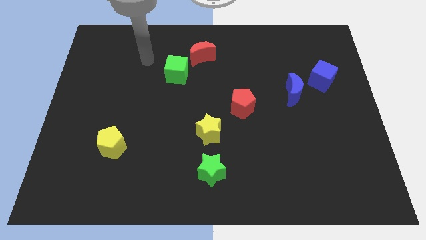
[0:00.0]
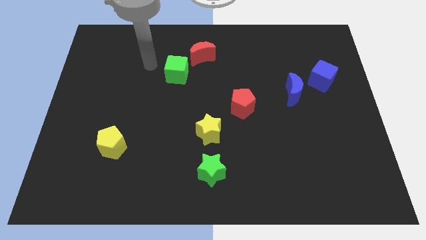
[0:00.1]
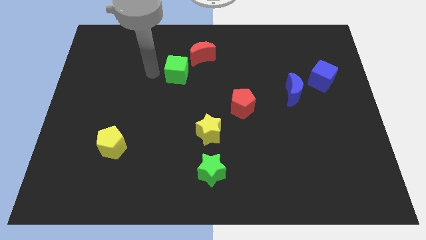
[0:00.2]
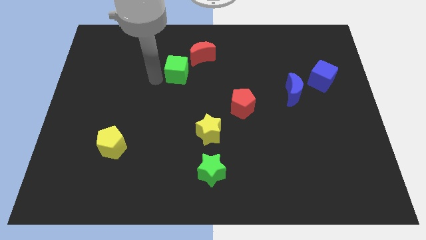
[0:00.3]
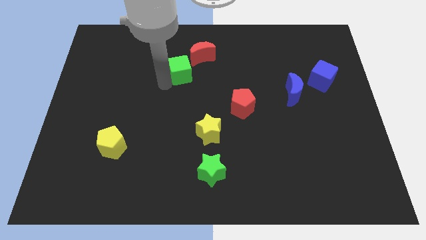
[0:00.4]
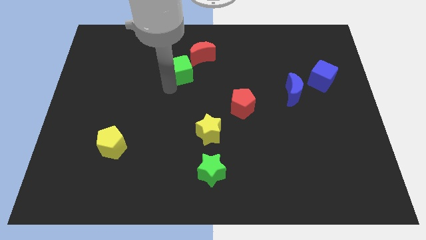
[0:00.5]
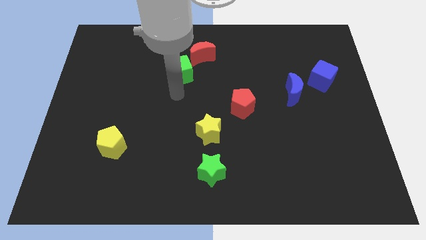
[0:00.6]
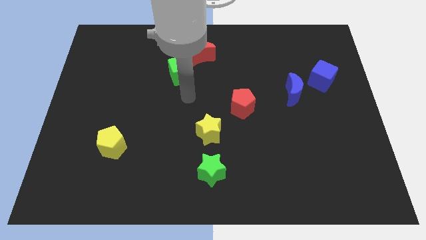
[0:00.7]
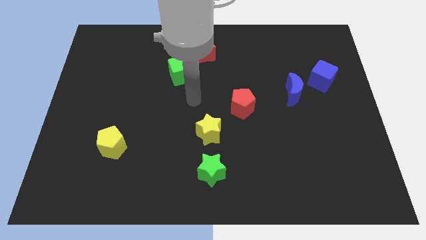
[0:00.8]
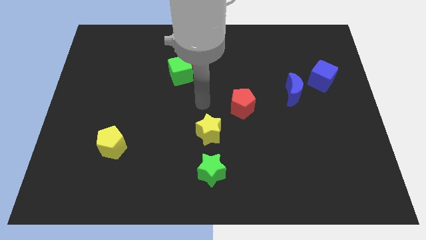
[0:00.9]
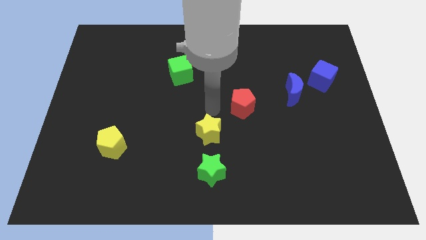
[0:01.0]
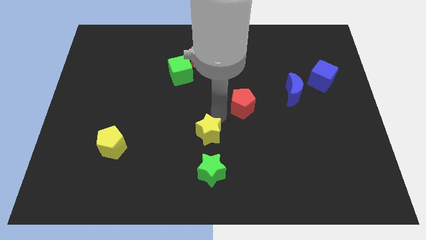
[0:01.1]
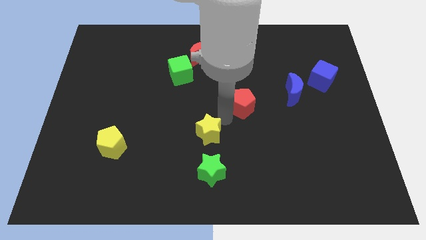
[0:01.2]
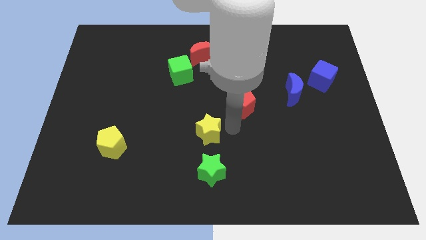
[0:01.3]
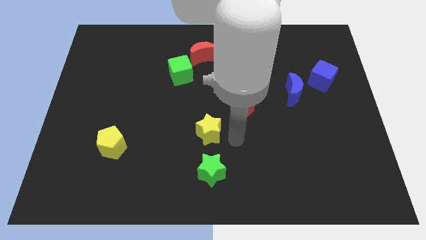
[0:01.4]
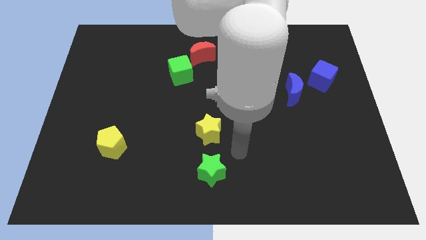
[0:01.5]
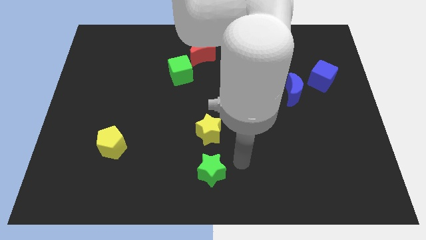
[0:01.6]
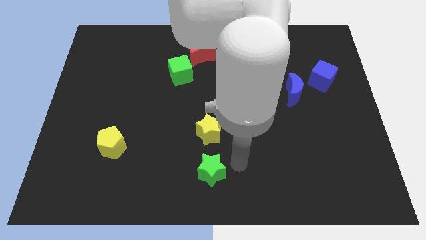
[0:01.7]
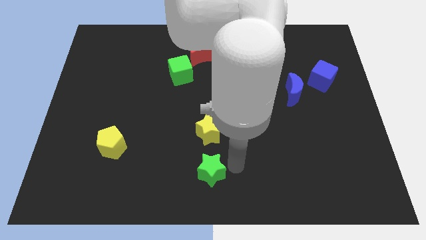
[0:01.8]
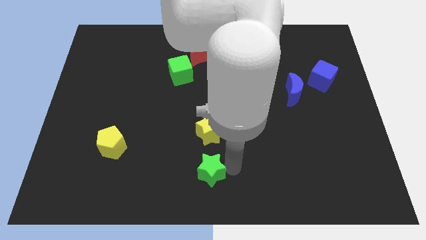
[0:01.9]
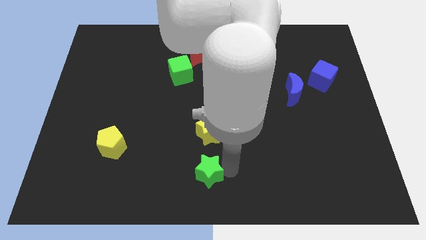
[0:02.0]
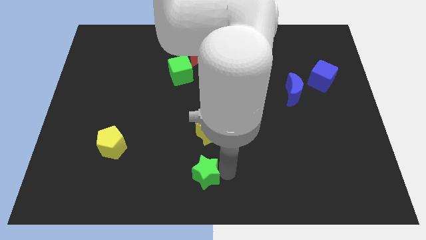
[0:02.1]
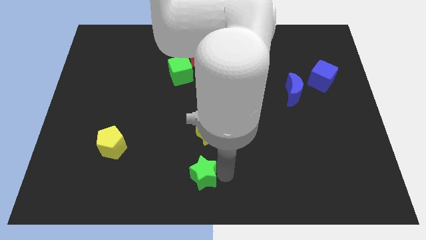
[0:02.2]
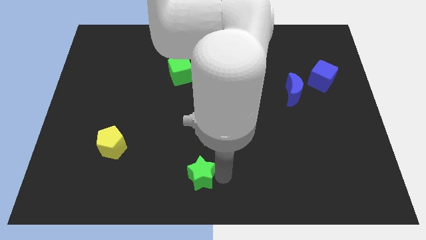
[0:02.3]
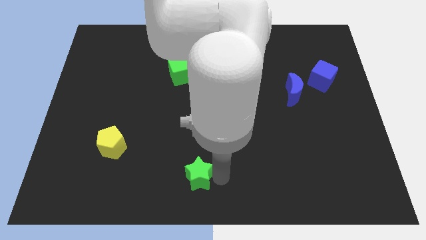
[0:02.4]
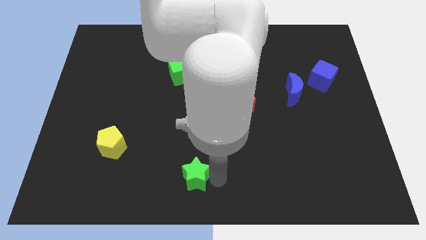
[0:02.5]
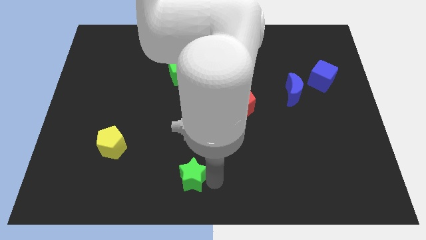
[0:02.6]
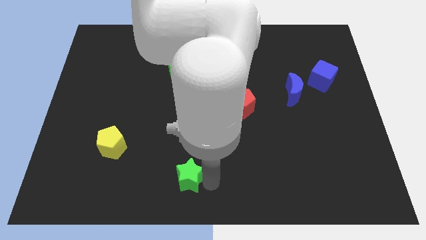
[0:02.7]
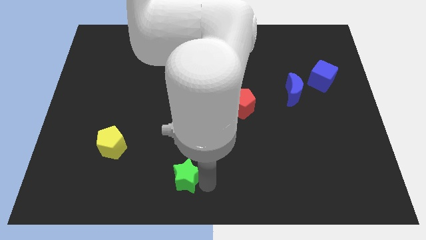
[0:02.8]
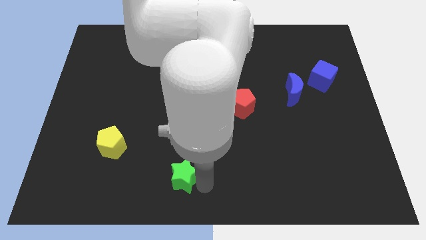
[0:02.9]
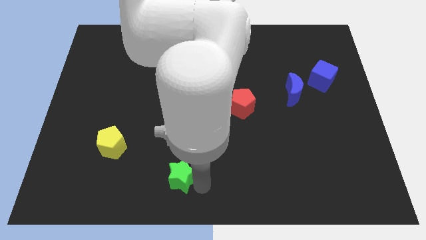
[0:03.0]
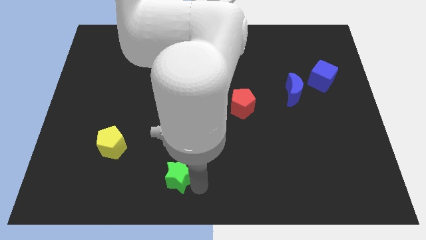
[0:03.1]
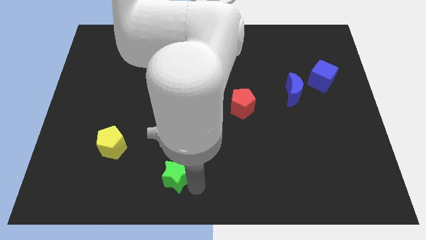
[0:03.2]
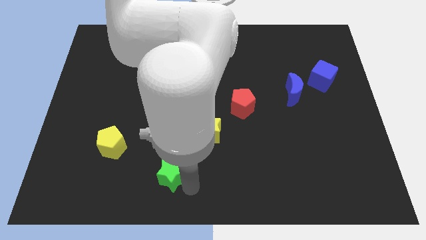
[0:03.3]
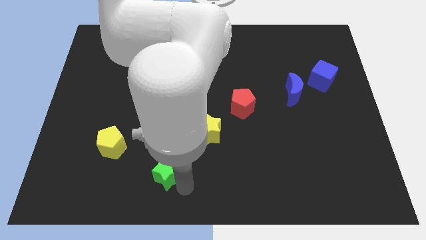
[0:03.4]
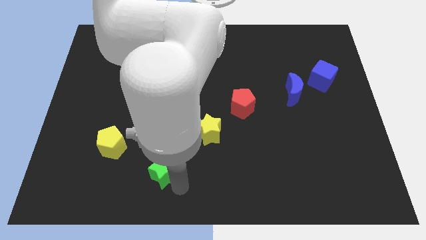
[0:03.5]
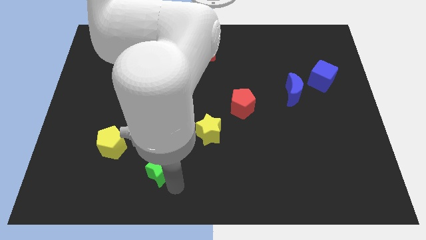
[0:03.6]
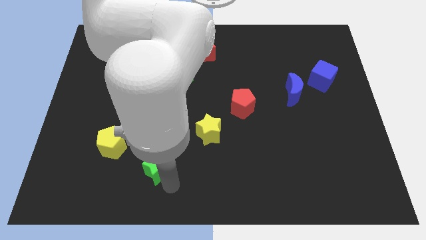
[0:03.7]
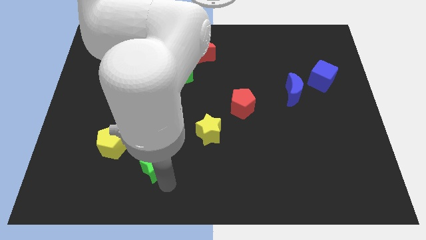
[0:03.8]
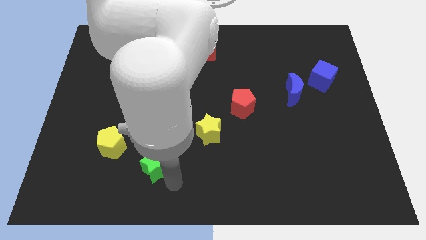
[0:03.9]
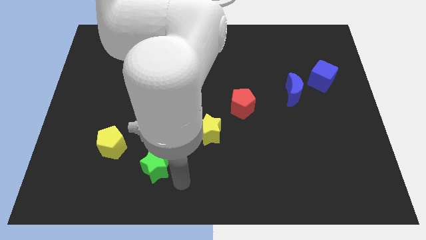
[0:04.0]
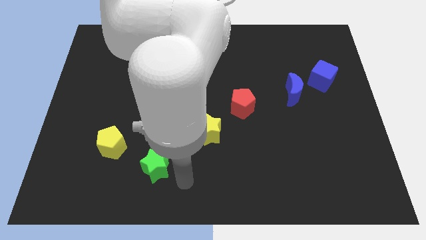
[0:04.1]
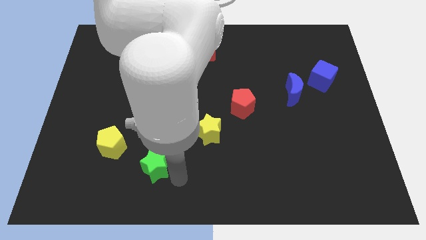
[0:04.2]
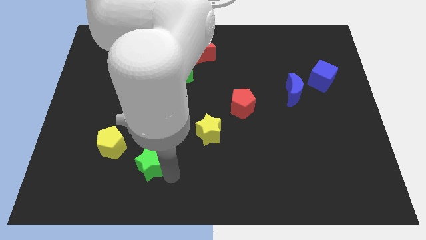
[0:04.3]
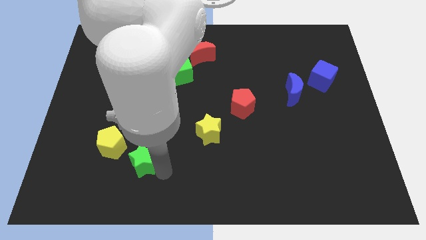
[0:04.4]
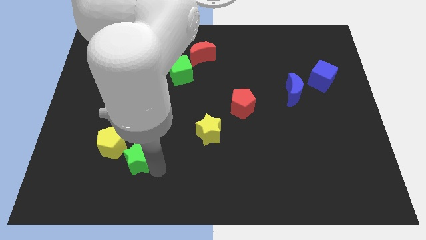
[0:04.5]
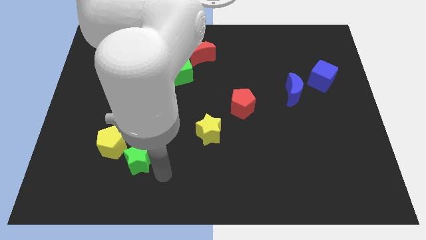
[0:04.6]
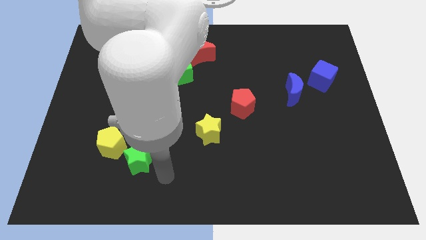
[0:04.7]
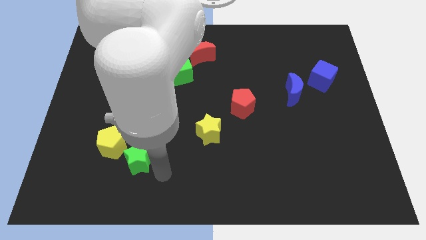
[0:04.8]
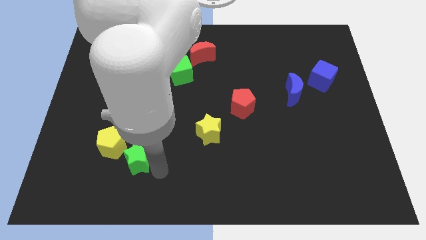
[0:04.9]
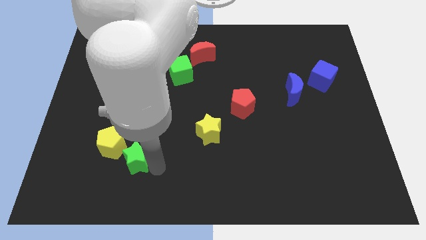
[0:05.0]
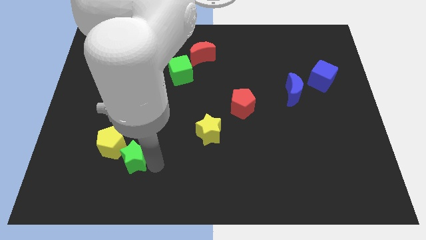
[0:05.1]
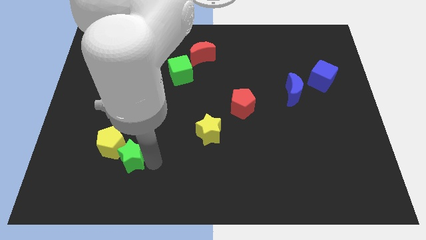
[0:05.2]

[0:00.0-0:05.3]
move the green star to the yellow pentagon

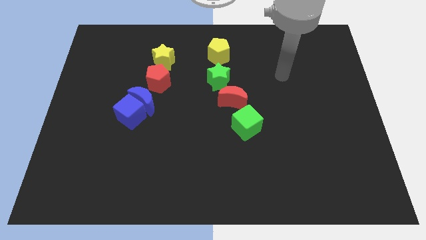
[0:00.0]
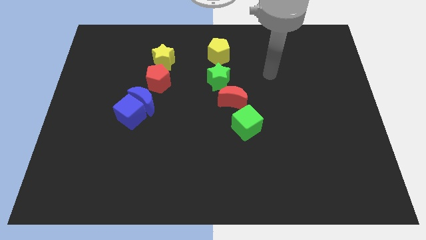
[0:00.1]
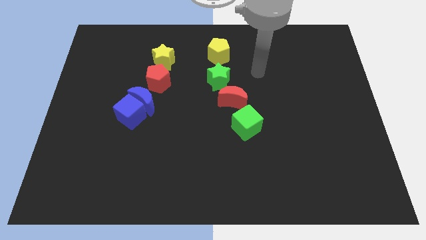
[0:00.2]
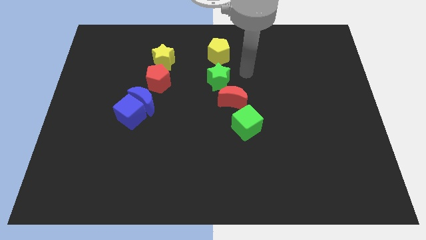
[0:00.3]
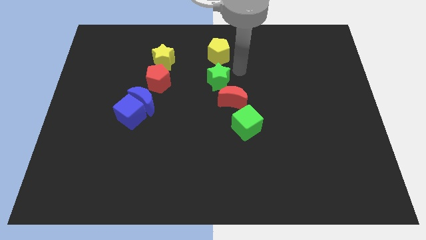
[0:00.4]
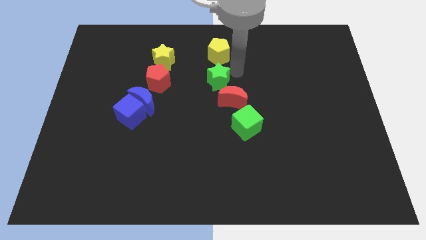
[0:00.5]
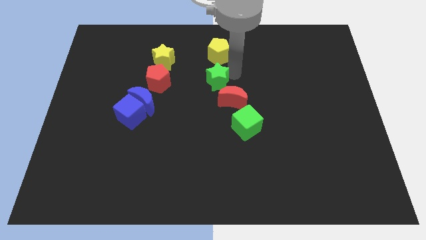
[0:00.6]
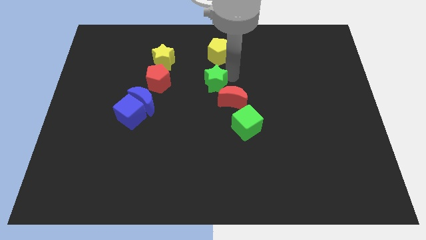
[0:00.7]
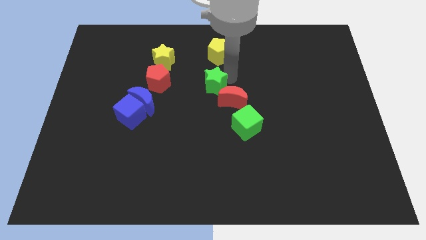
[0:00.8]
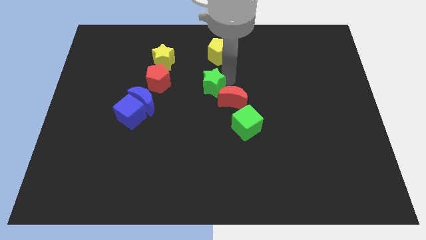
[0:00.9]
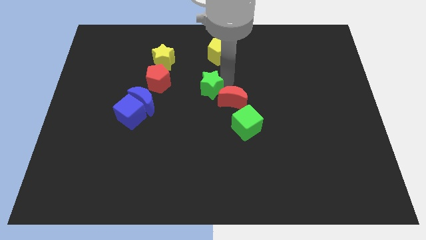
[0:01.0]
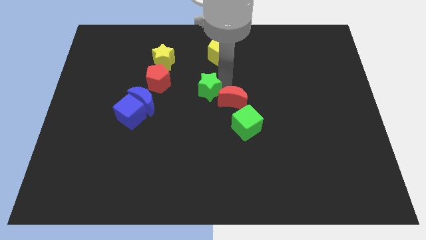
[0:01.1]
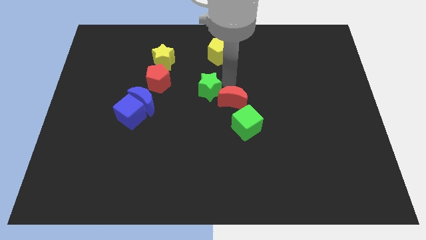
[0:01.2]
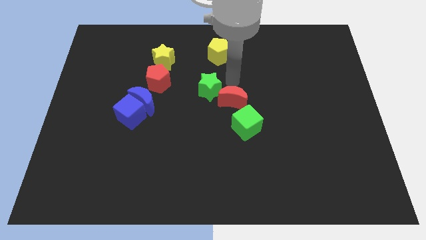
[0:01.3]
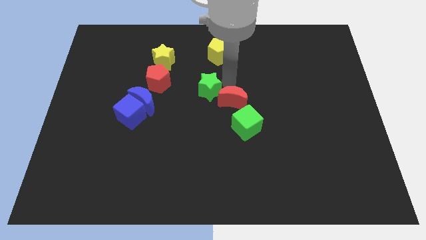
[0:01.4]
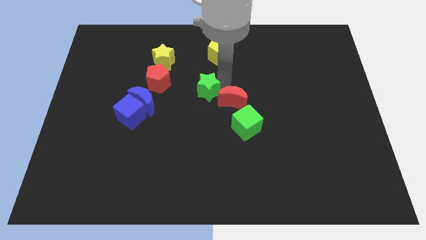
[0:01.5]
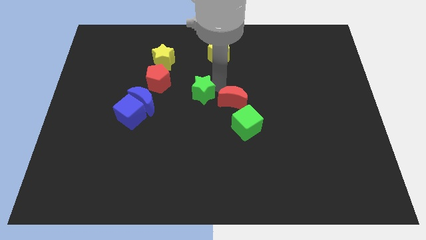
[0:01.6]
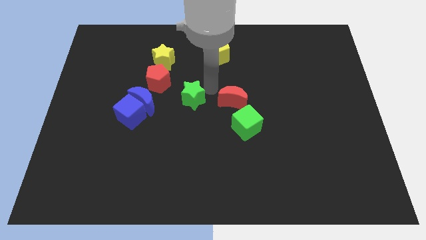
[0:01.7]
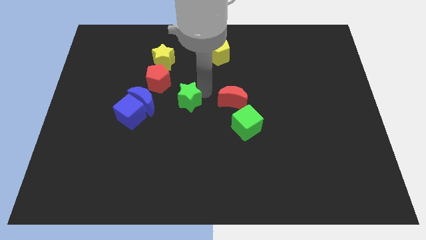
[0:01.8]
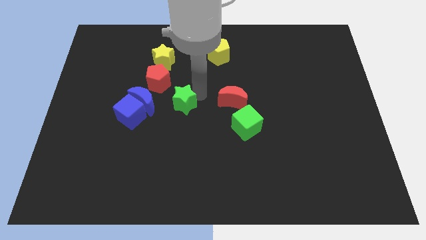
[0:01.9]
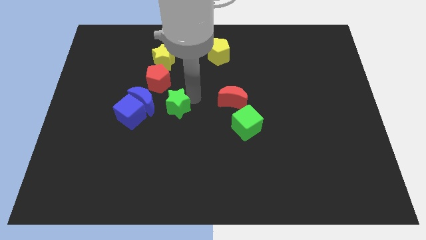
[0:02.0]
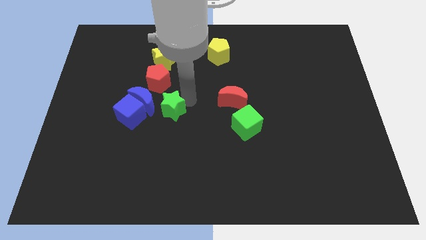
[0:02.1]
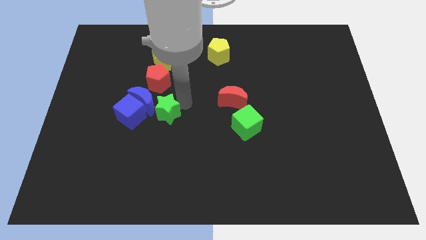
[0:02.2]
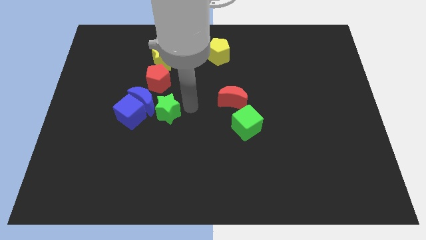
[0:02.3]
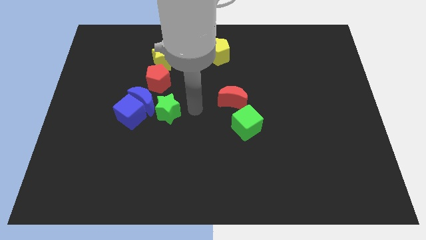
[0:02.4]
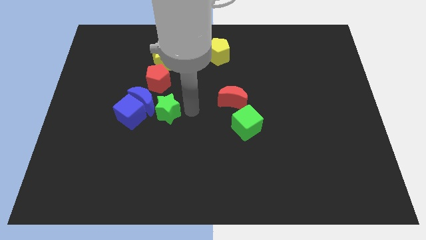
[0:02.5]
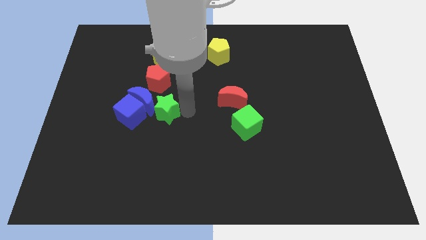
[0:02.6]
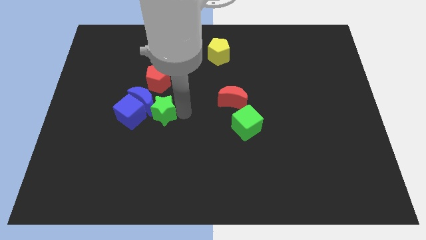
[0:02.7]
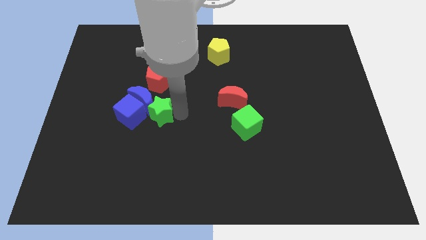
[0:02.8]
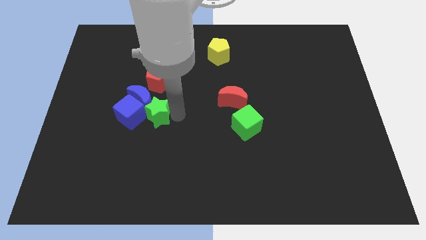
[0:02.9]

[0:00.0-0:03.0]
push the green star next to the blue cube
